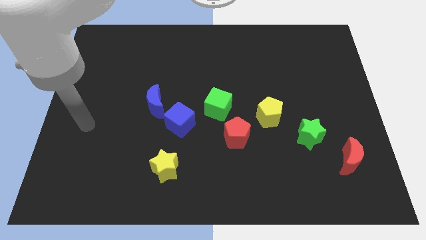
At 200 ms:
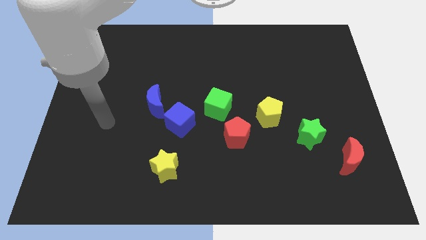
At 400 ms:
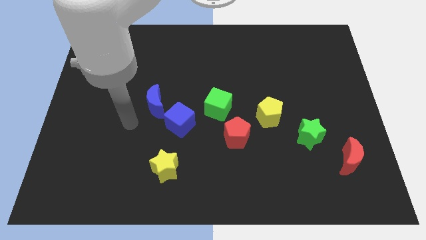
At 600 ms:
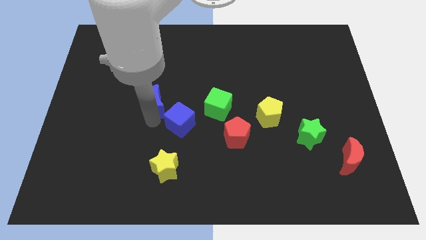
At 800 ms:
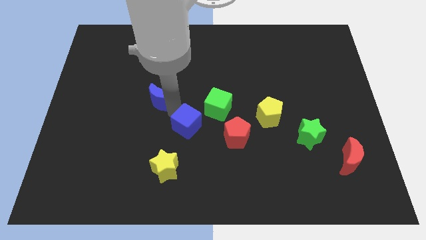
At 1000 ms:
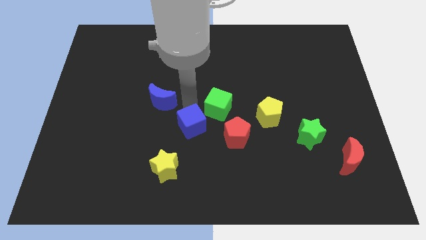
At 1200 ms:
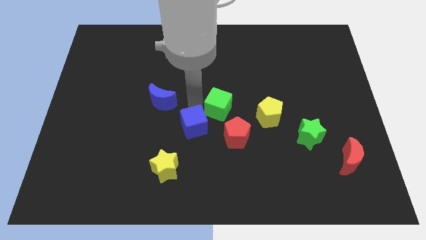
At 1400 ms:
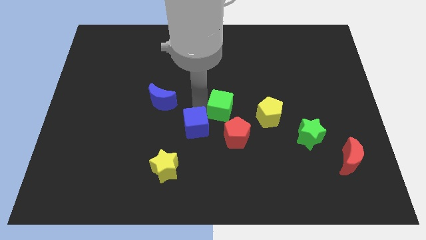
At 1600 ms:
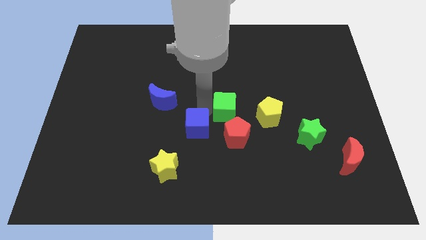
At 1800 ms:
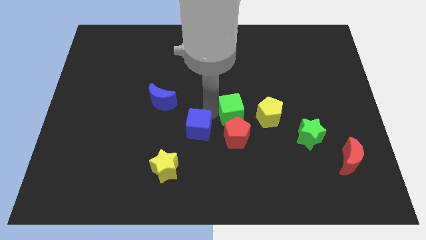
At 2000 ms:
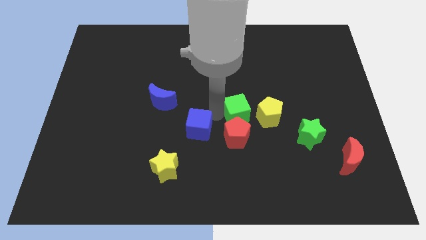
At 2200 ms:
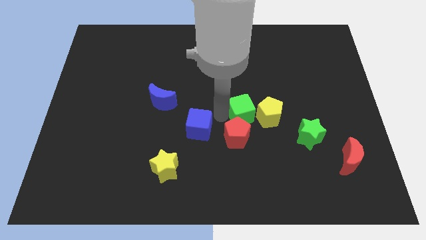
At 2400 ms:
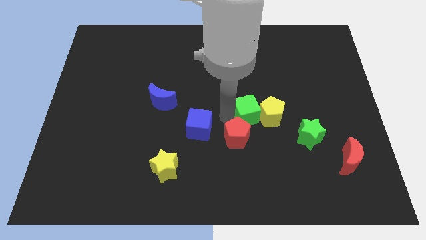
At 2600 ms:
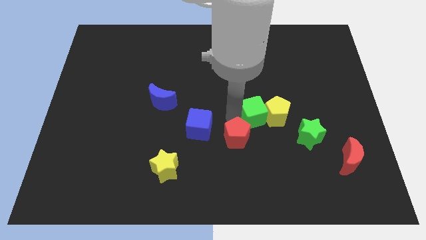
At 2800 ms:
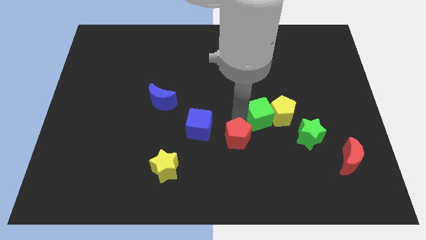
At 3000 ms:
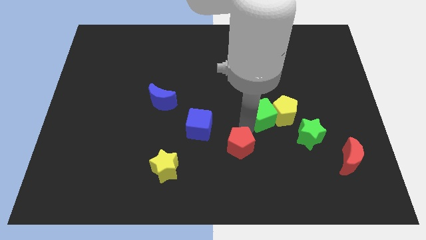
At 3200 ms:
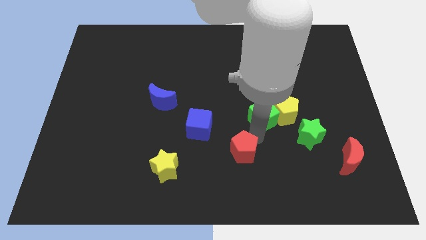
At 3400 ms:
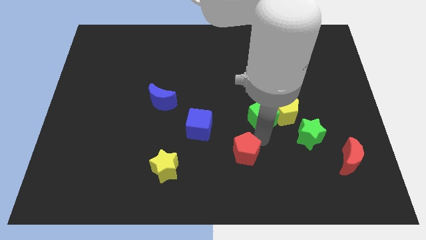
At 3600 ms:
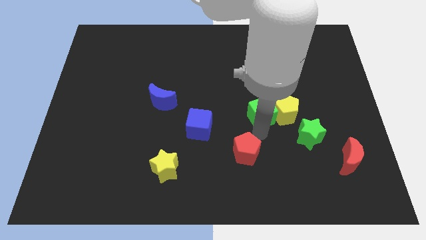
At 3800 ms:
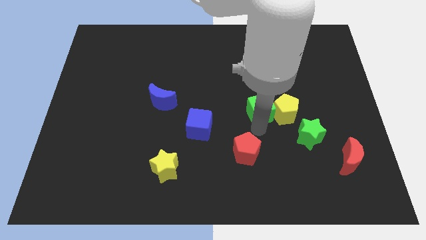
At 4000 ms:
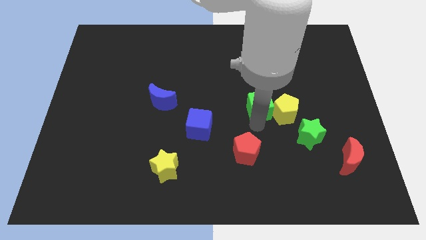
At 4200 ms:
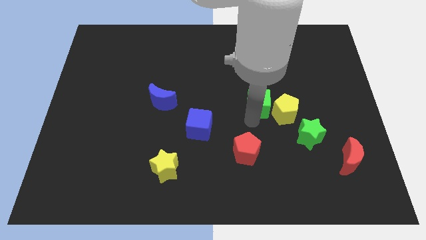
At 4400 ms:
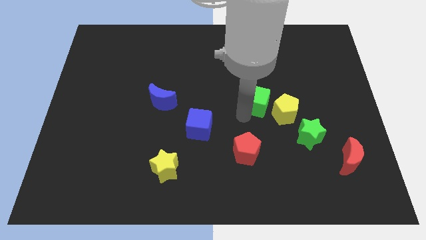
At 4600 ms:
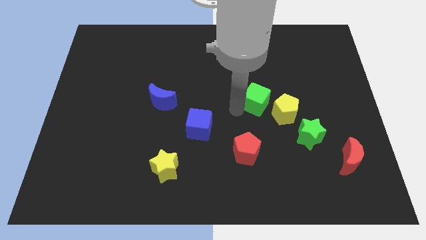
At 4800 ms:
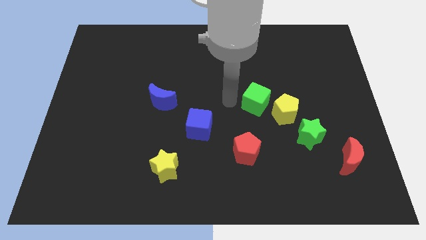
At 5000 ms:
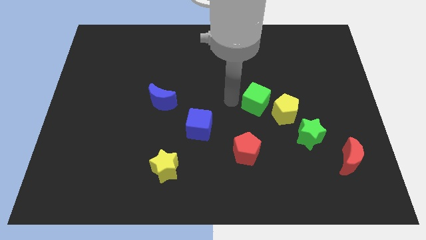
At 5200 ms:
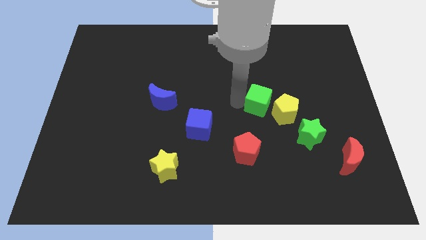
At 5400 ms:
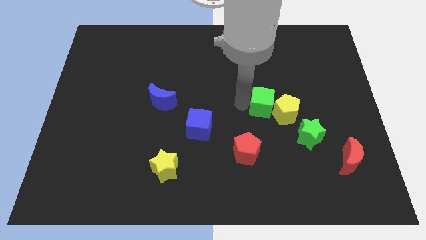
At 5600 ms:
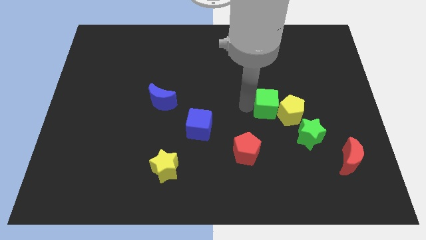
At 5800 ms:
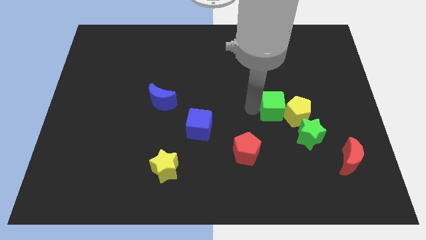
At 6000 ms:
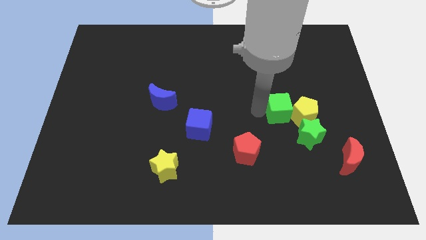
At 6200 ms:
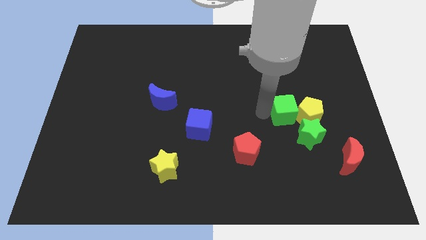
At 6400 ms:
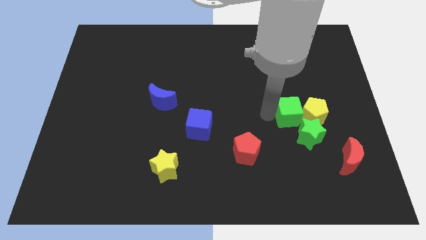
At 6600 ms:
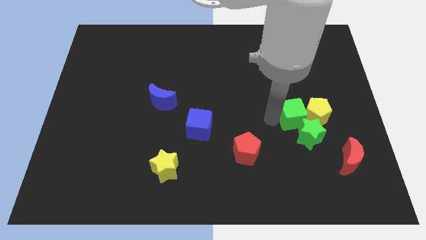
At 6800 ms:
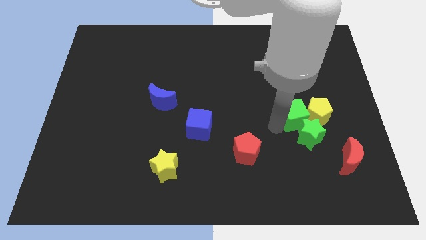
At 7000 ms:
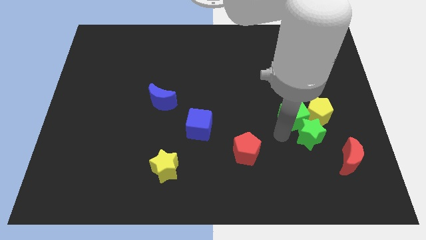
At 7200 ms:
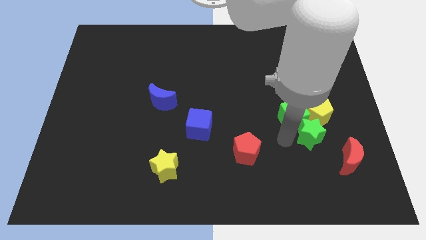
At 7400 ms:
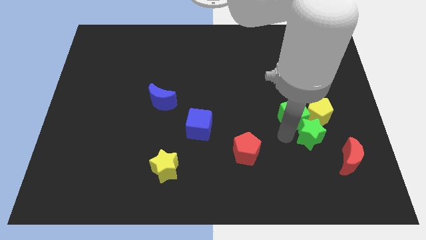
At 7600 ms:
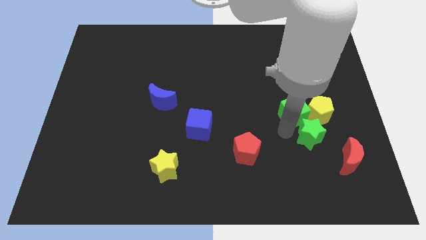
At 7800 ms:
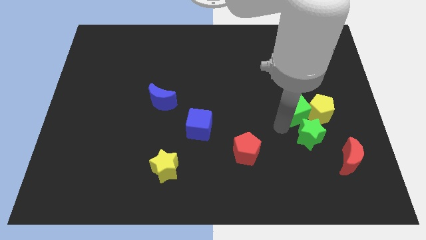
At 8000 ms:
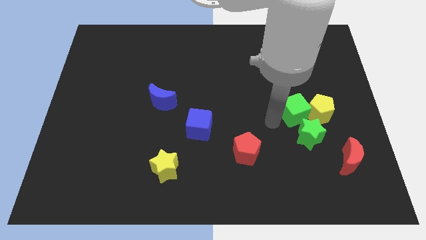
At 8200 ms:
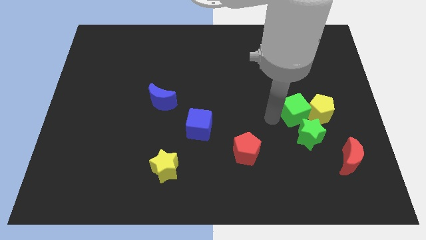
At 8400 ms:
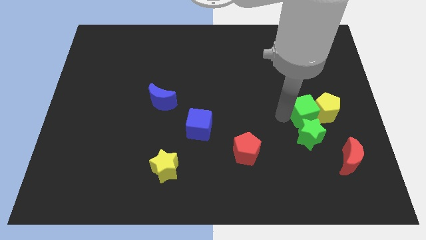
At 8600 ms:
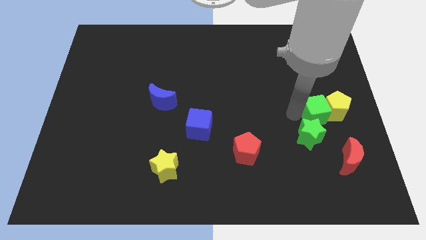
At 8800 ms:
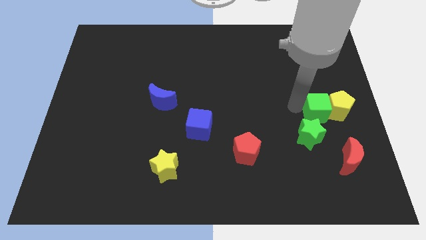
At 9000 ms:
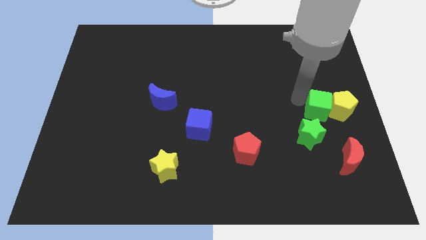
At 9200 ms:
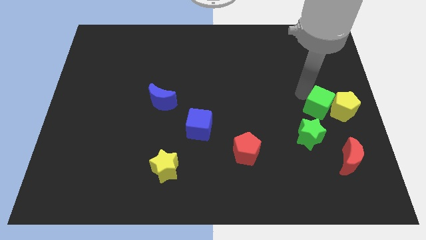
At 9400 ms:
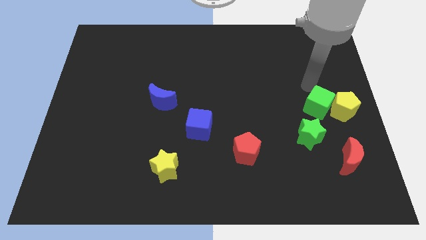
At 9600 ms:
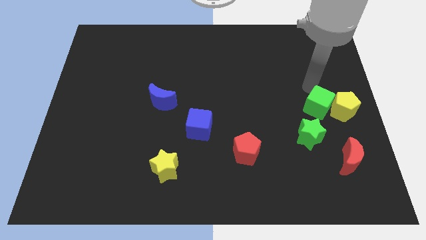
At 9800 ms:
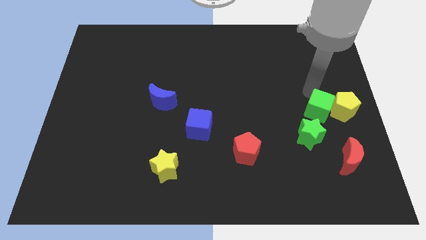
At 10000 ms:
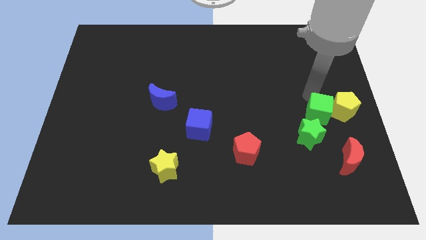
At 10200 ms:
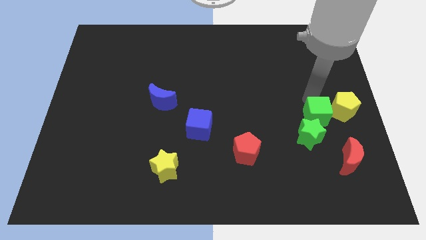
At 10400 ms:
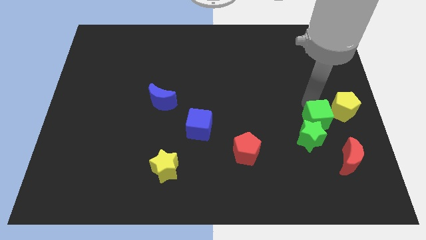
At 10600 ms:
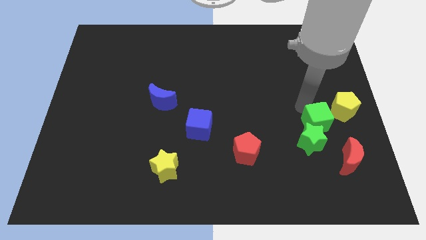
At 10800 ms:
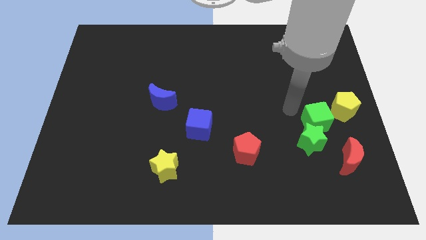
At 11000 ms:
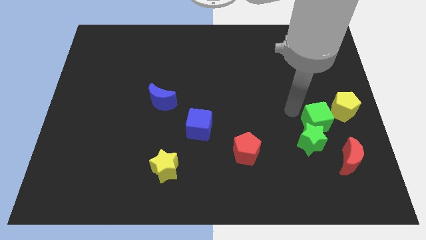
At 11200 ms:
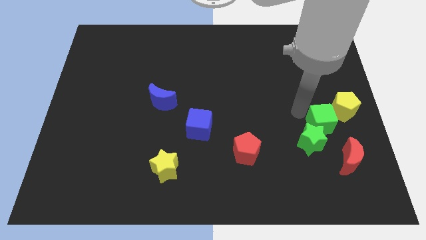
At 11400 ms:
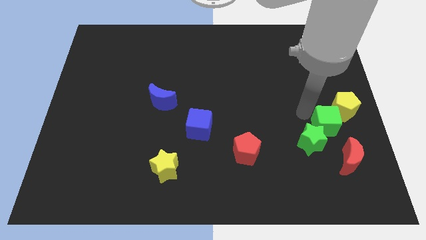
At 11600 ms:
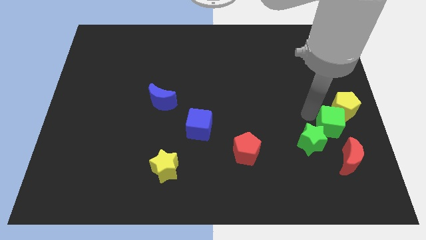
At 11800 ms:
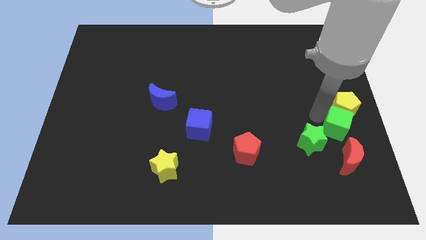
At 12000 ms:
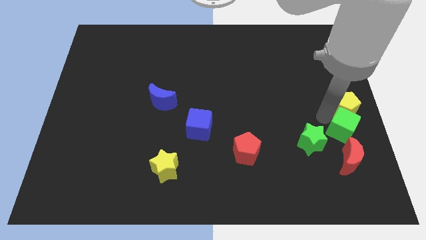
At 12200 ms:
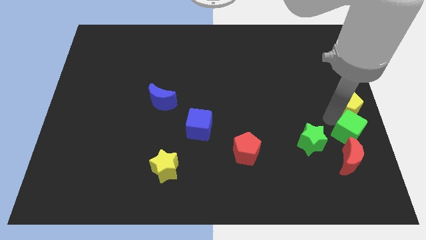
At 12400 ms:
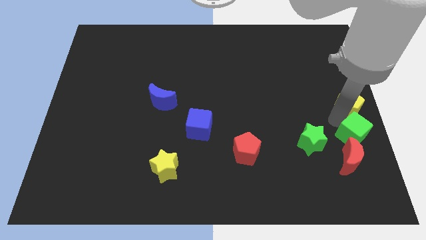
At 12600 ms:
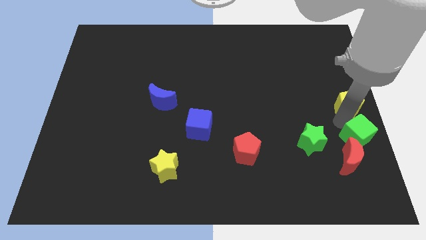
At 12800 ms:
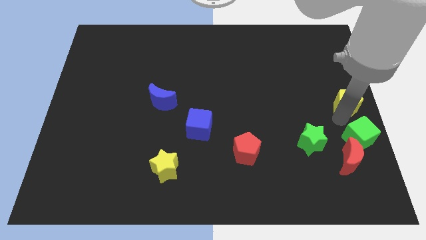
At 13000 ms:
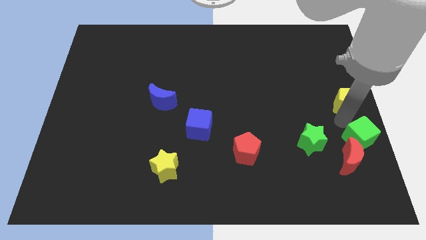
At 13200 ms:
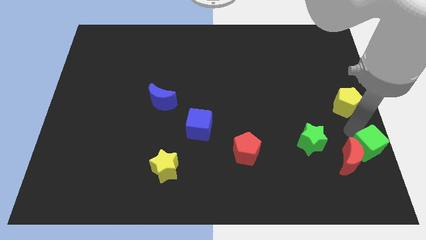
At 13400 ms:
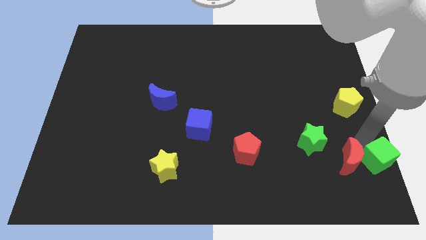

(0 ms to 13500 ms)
push the green cube to the lower right corner
